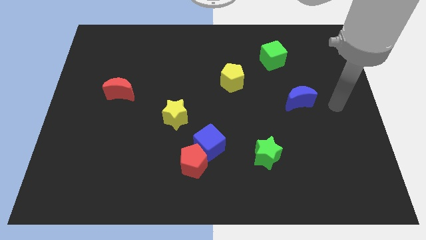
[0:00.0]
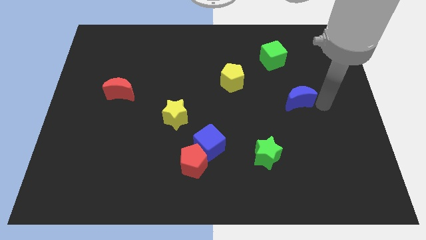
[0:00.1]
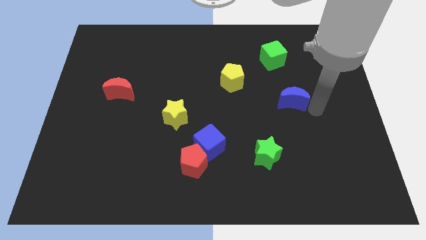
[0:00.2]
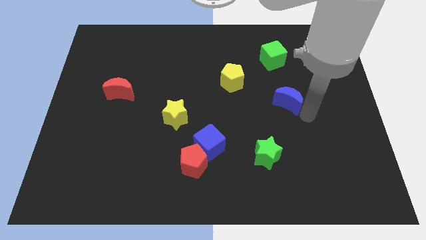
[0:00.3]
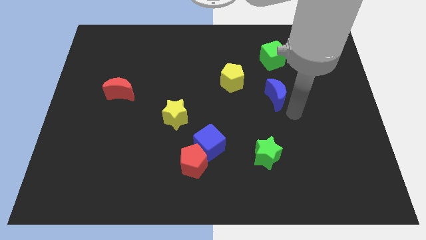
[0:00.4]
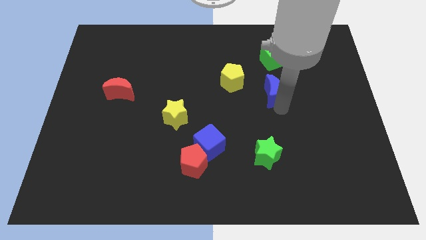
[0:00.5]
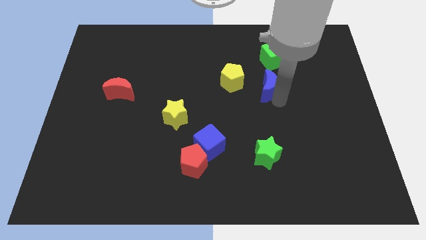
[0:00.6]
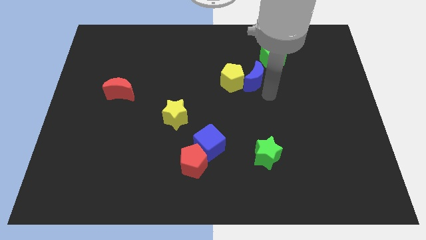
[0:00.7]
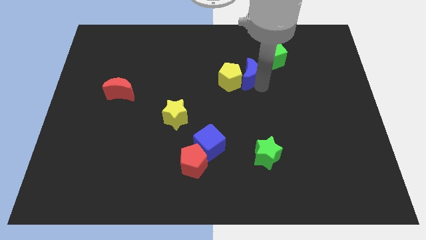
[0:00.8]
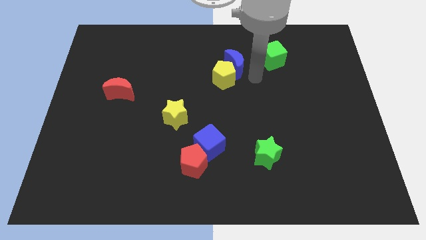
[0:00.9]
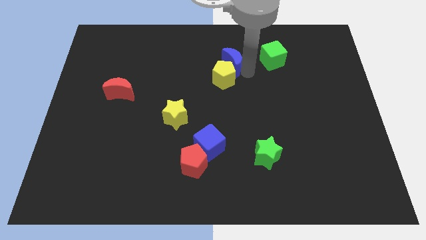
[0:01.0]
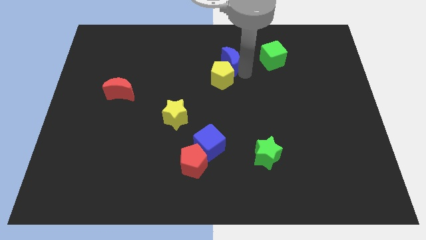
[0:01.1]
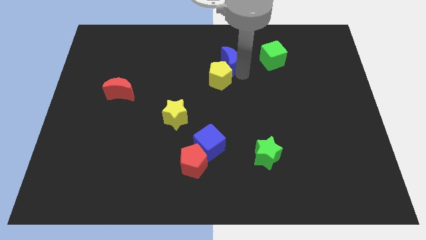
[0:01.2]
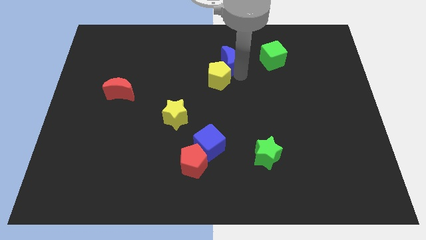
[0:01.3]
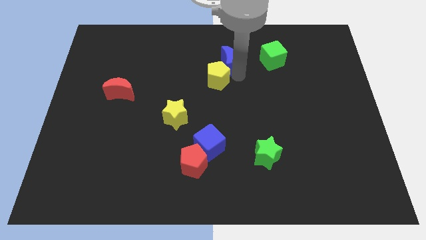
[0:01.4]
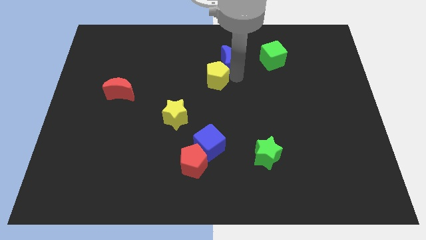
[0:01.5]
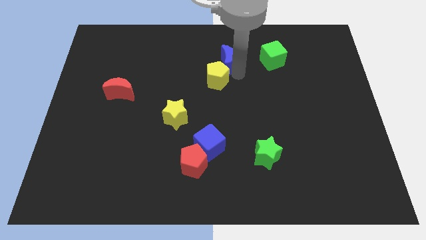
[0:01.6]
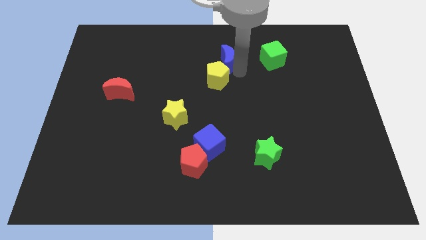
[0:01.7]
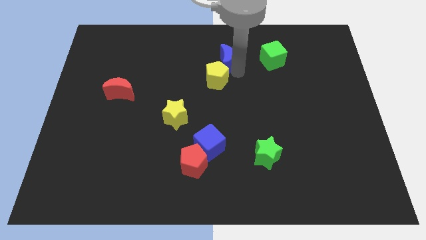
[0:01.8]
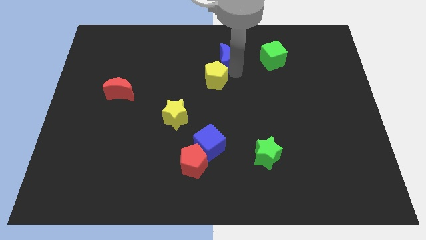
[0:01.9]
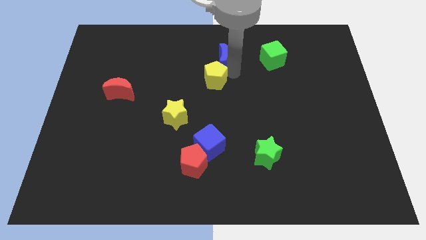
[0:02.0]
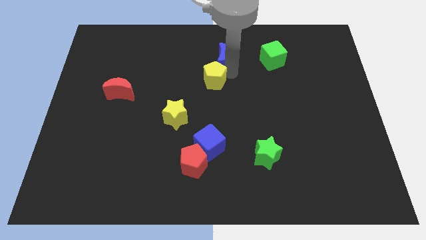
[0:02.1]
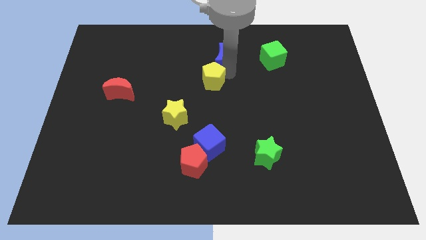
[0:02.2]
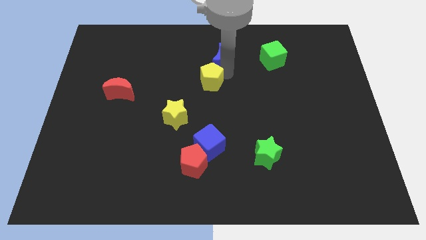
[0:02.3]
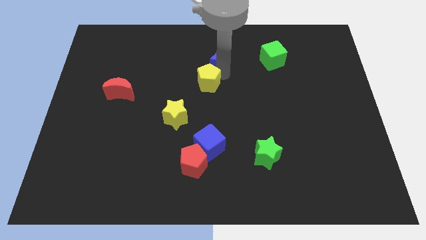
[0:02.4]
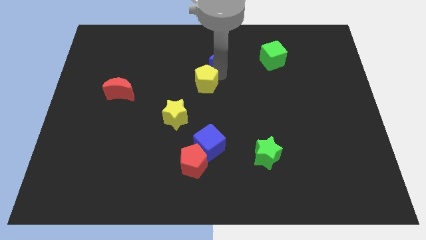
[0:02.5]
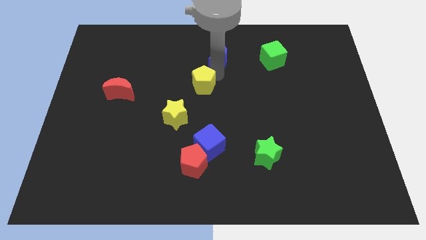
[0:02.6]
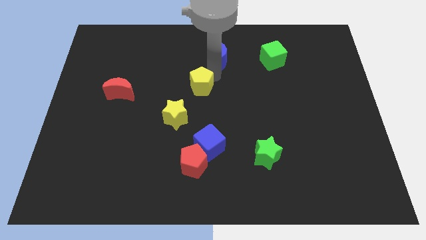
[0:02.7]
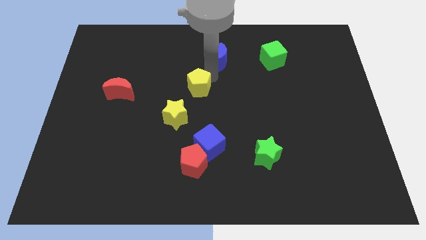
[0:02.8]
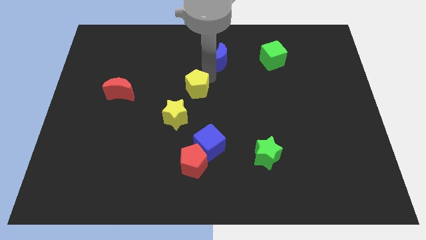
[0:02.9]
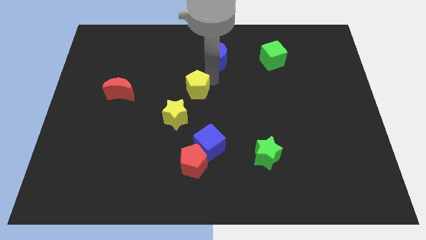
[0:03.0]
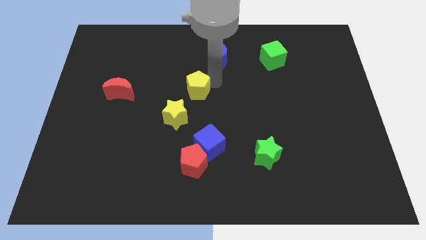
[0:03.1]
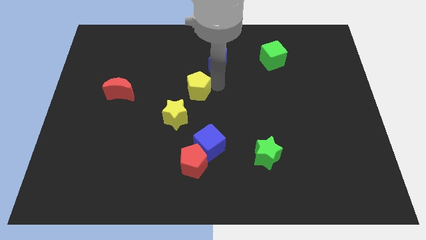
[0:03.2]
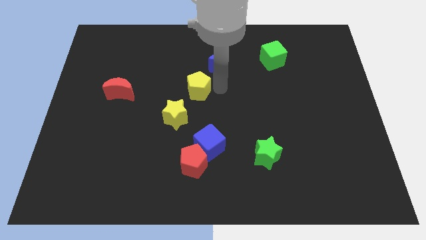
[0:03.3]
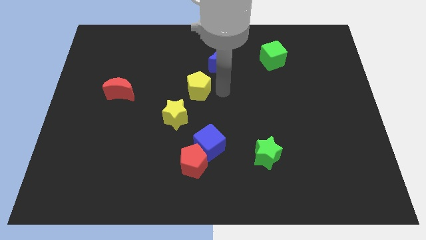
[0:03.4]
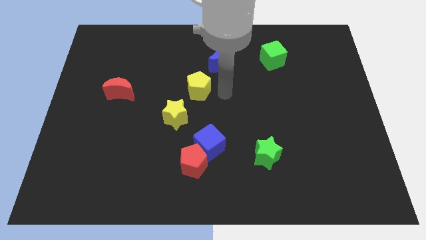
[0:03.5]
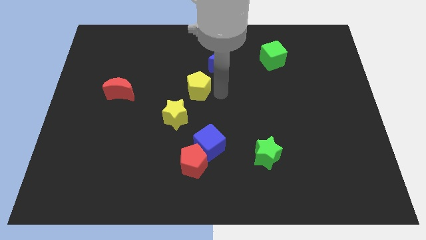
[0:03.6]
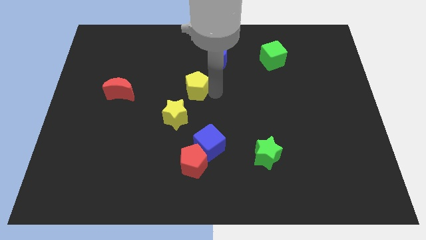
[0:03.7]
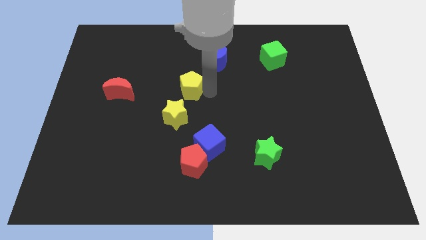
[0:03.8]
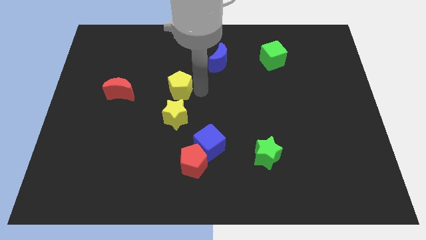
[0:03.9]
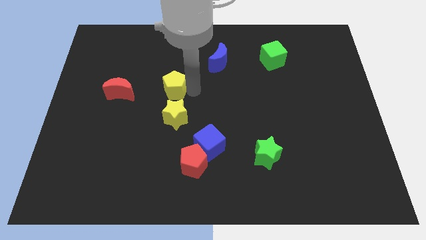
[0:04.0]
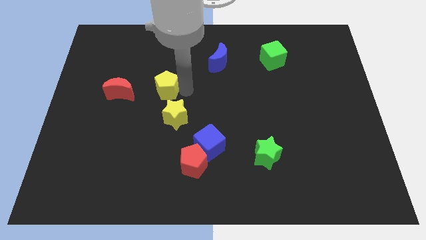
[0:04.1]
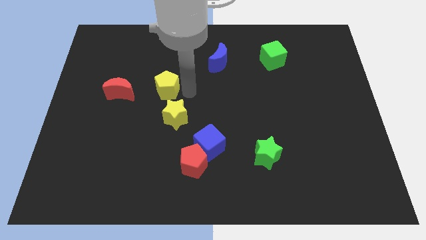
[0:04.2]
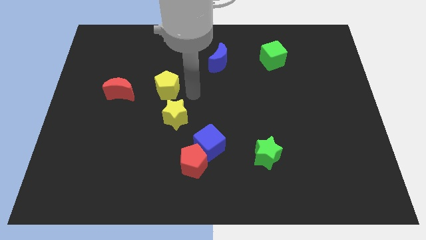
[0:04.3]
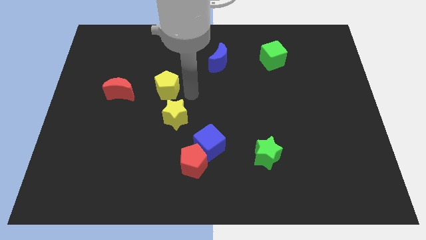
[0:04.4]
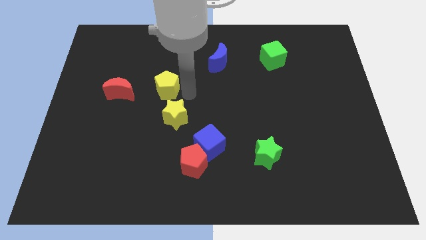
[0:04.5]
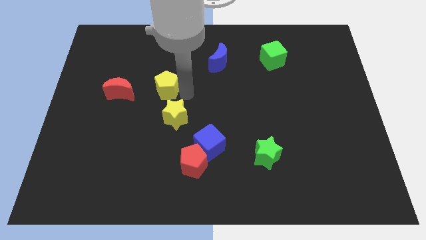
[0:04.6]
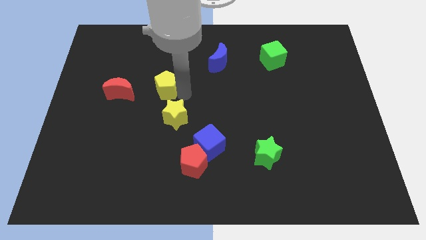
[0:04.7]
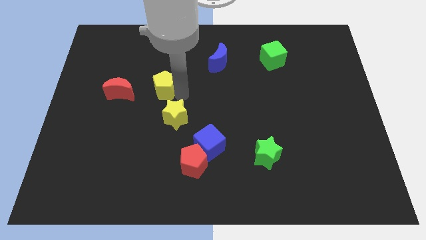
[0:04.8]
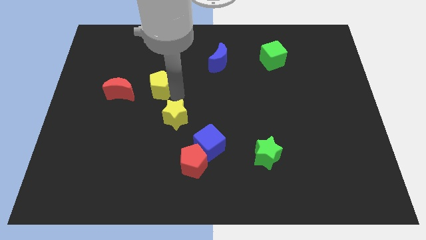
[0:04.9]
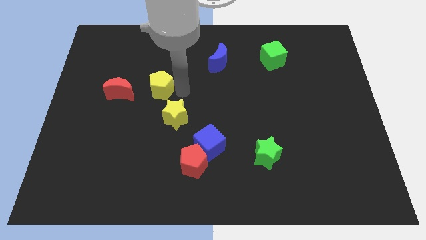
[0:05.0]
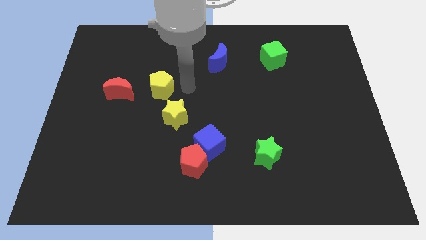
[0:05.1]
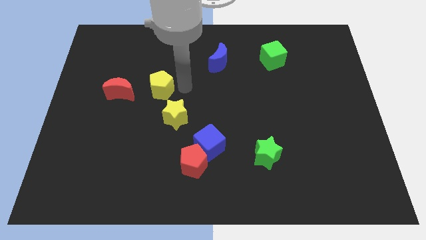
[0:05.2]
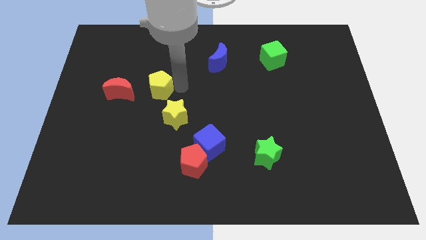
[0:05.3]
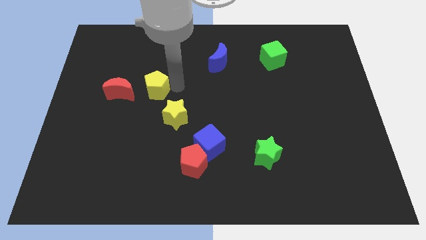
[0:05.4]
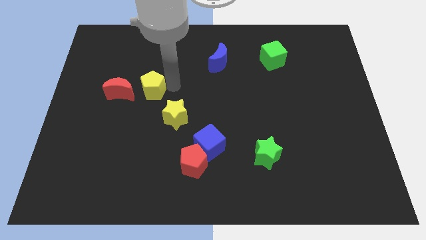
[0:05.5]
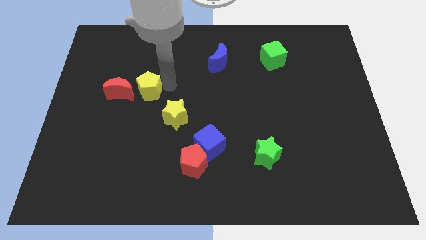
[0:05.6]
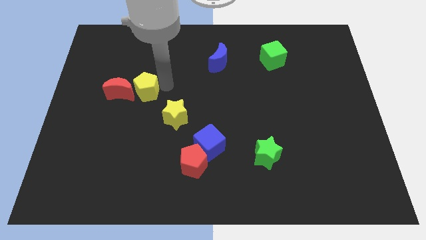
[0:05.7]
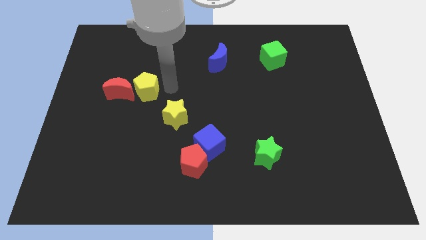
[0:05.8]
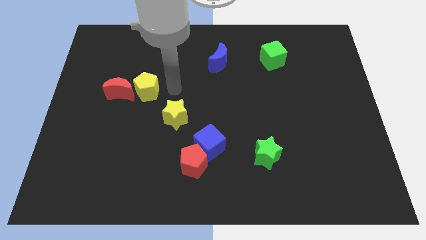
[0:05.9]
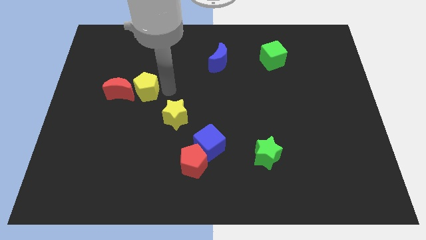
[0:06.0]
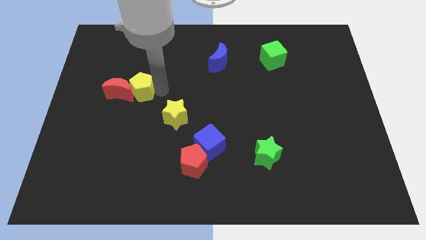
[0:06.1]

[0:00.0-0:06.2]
slide the yellow pentagon close to the red moon

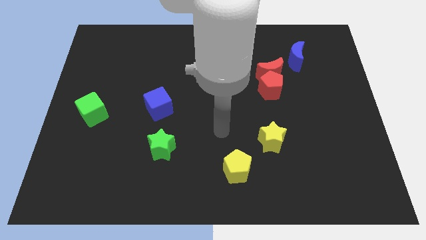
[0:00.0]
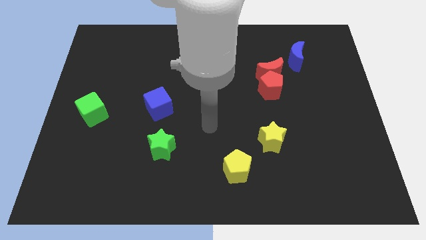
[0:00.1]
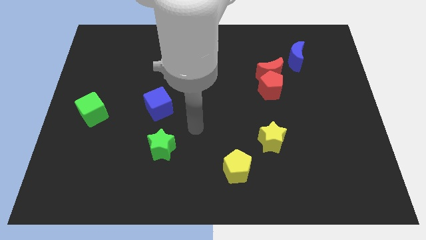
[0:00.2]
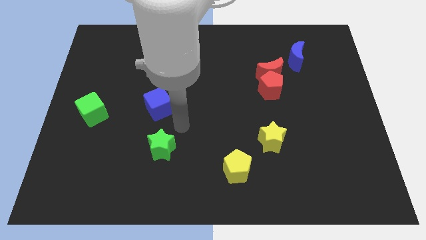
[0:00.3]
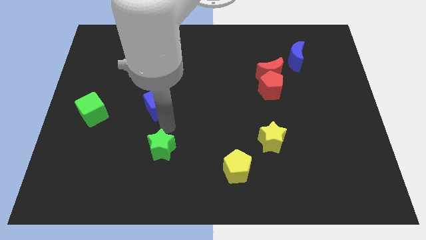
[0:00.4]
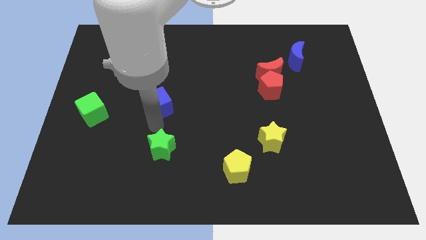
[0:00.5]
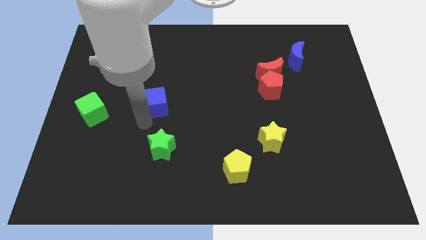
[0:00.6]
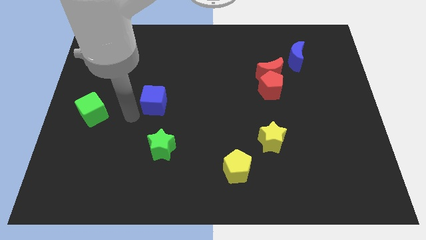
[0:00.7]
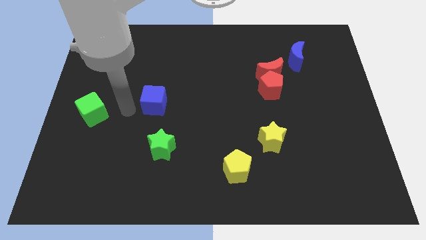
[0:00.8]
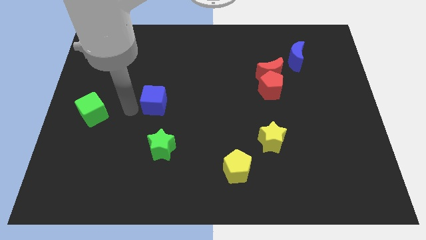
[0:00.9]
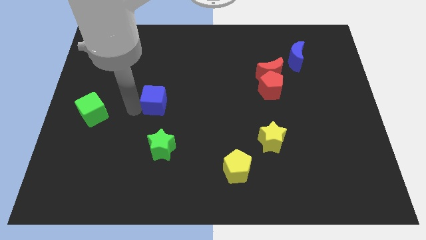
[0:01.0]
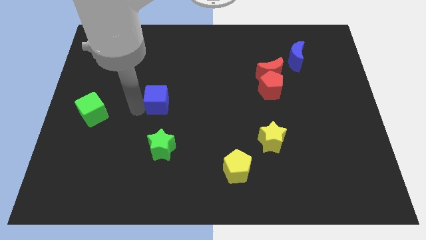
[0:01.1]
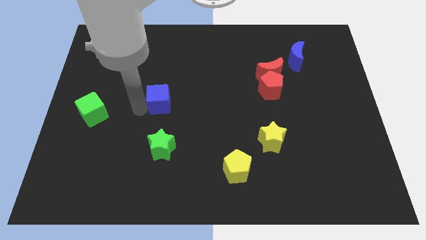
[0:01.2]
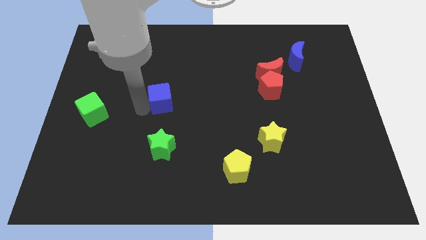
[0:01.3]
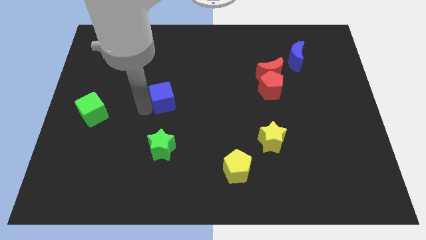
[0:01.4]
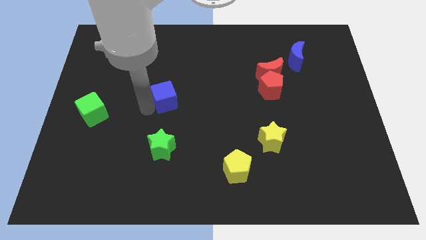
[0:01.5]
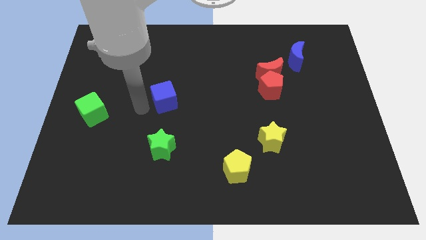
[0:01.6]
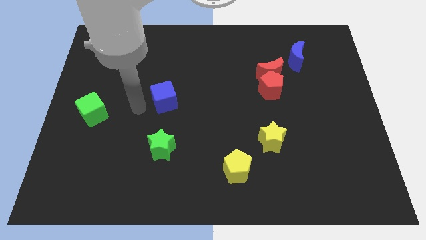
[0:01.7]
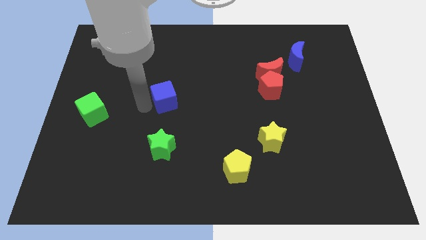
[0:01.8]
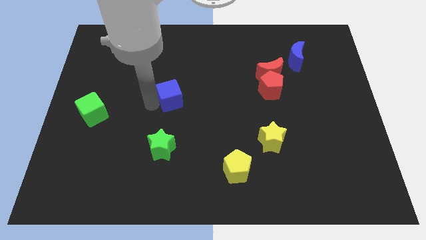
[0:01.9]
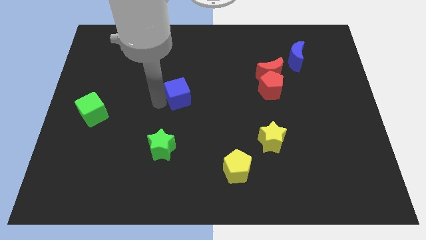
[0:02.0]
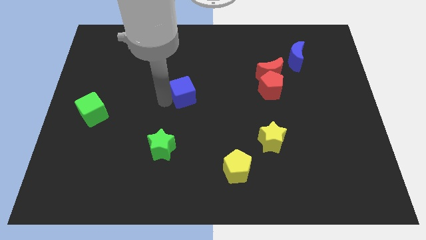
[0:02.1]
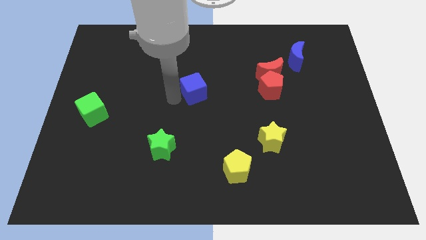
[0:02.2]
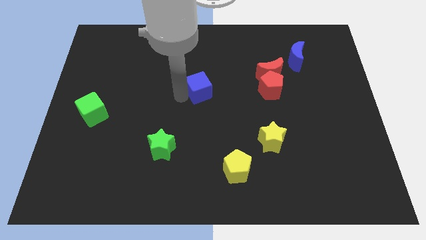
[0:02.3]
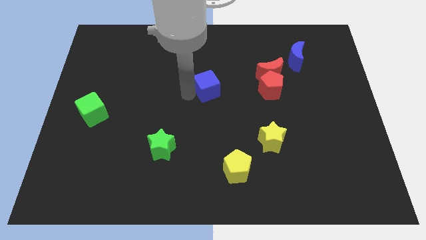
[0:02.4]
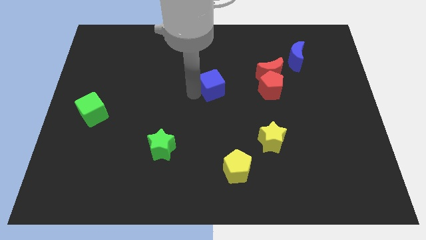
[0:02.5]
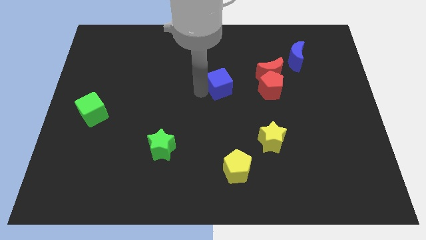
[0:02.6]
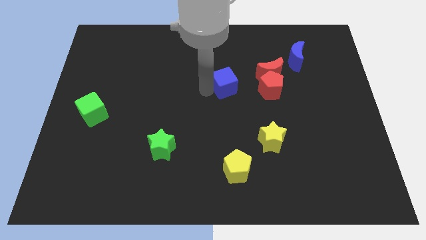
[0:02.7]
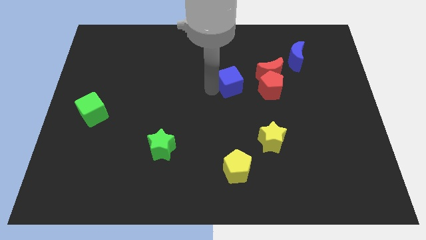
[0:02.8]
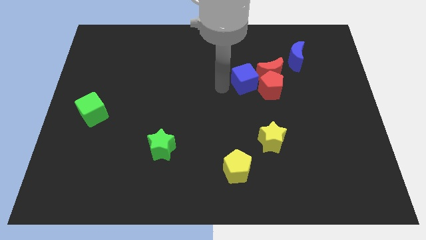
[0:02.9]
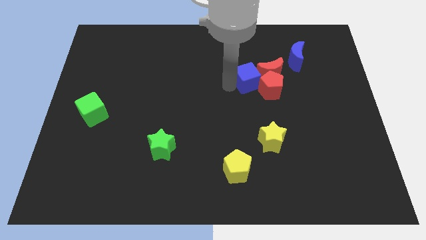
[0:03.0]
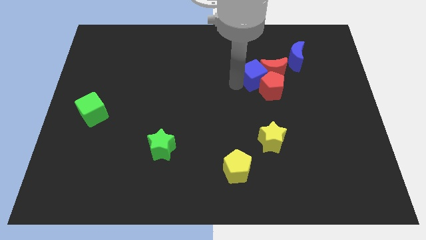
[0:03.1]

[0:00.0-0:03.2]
move the blue cube towards the red moon
